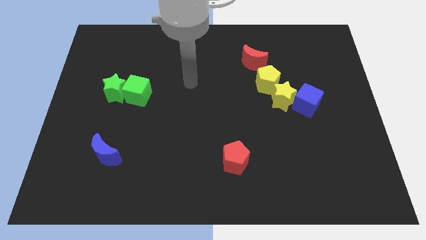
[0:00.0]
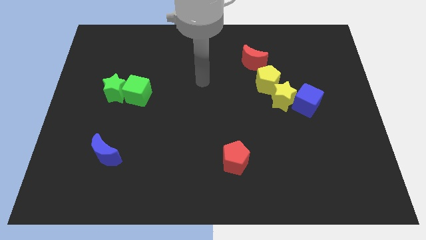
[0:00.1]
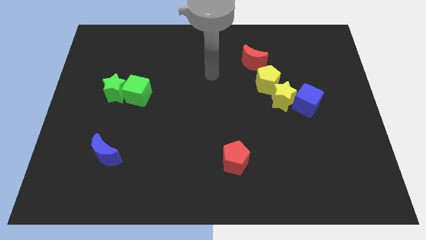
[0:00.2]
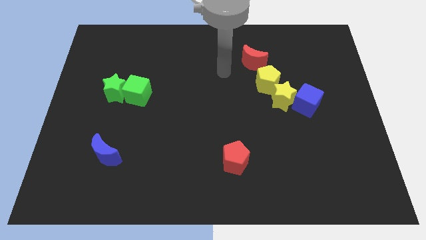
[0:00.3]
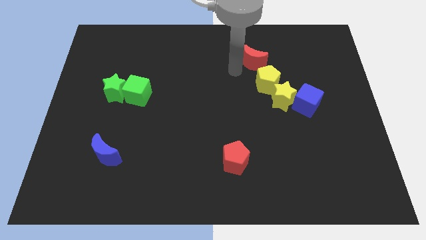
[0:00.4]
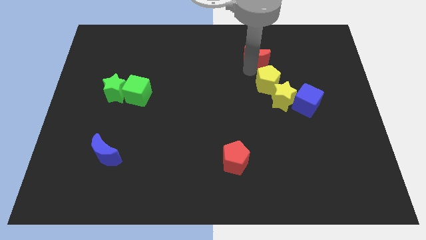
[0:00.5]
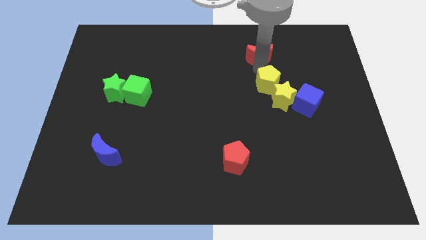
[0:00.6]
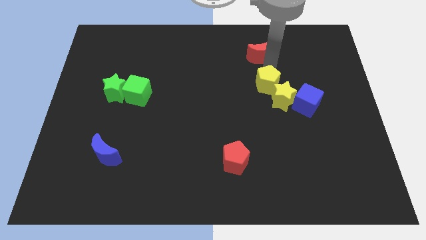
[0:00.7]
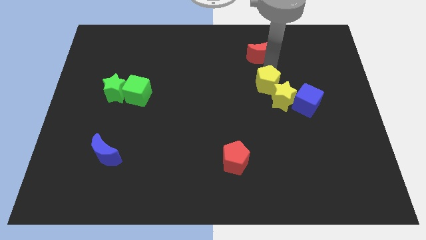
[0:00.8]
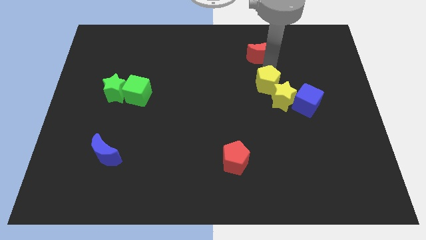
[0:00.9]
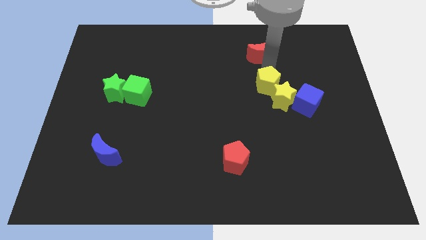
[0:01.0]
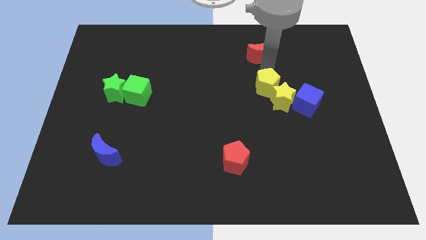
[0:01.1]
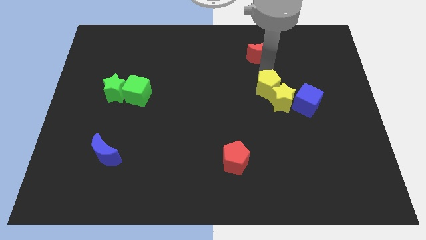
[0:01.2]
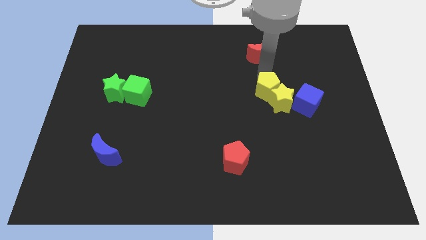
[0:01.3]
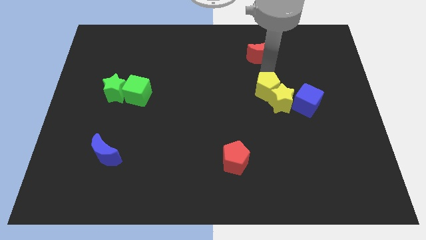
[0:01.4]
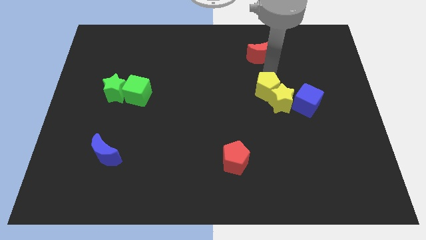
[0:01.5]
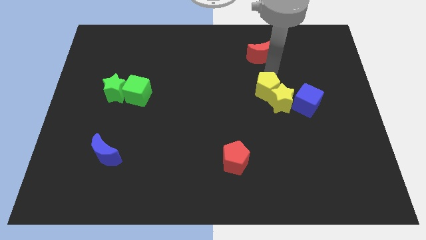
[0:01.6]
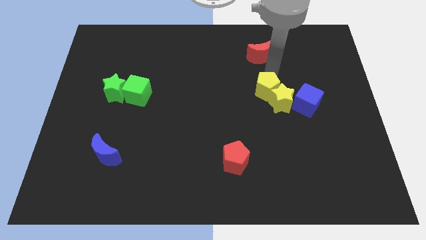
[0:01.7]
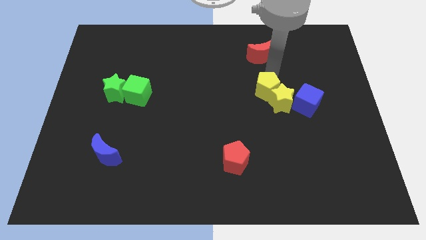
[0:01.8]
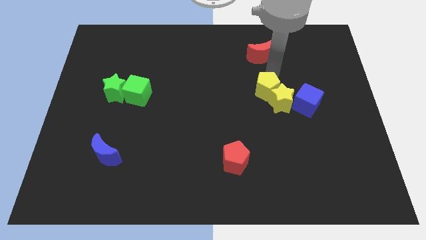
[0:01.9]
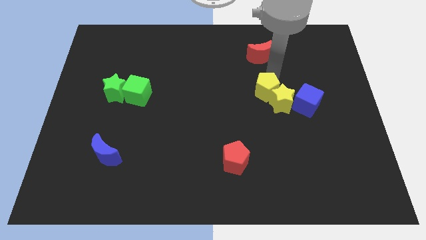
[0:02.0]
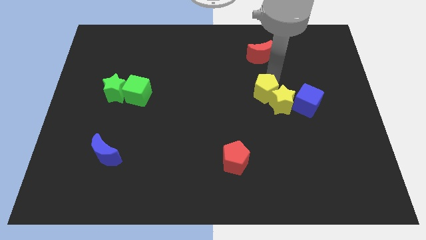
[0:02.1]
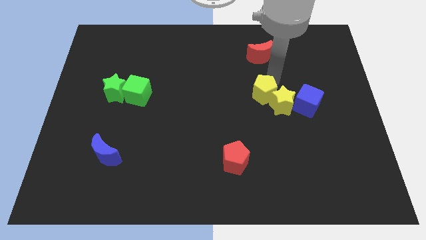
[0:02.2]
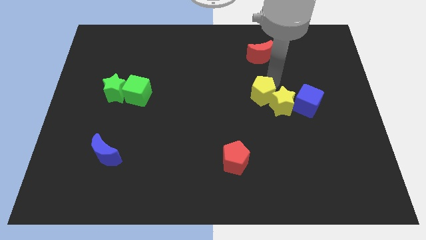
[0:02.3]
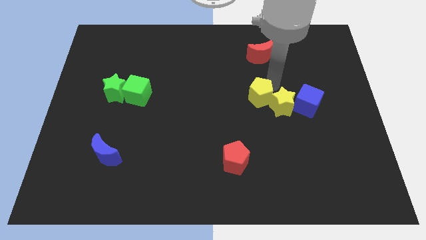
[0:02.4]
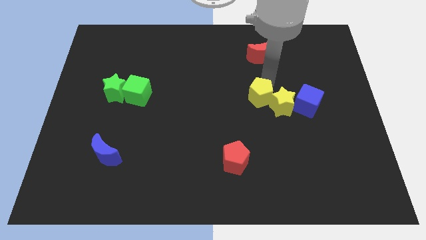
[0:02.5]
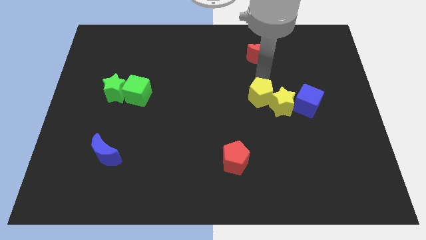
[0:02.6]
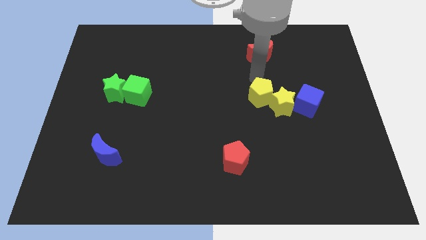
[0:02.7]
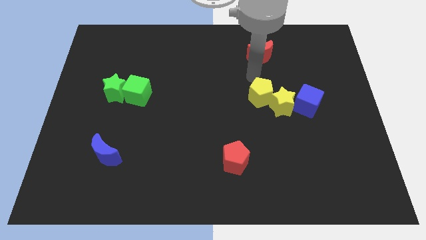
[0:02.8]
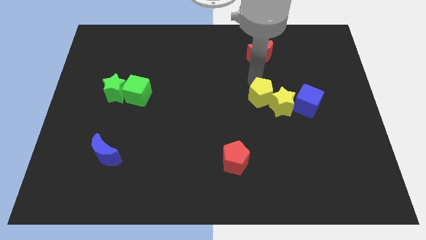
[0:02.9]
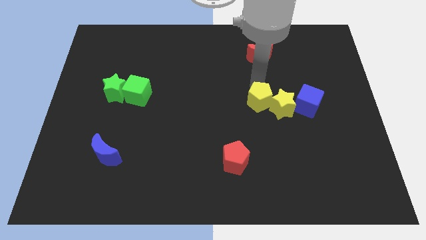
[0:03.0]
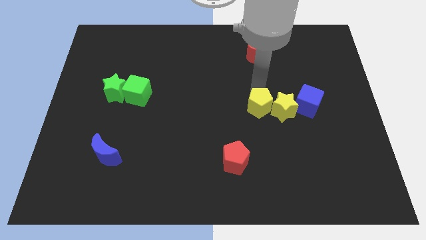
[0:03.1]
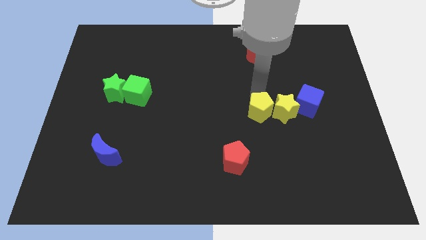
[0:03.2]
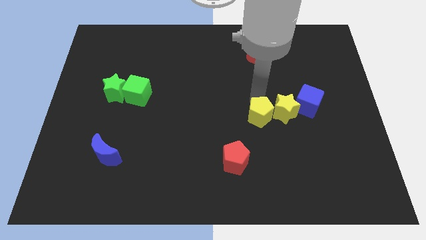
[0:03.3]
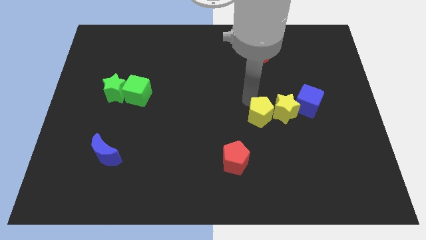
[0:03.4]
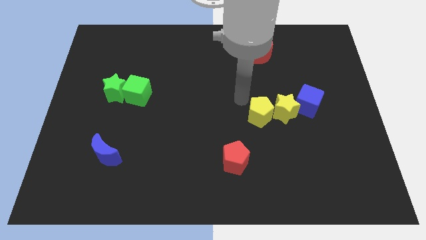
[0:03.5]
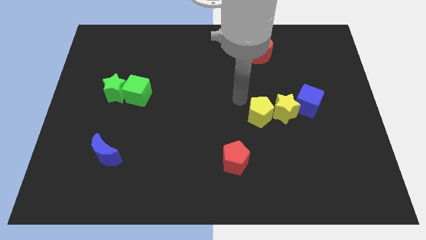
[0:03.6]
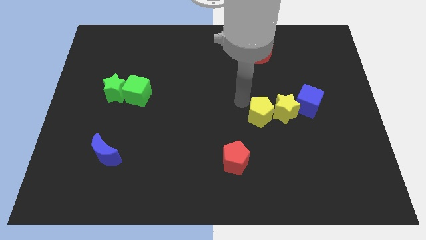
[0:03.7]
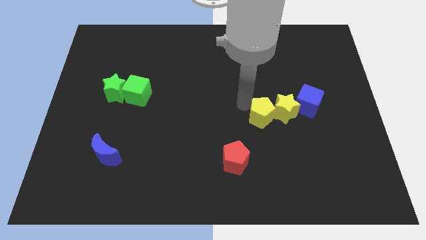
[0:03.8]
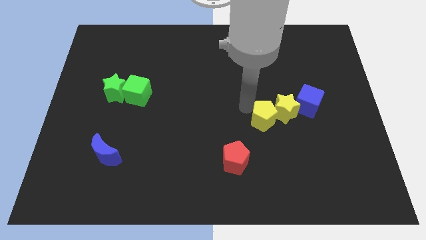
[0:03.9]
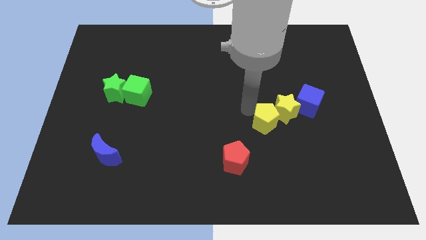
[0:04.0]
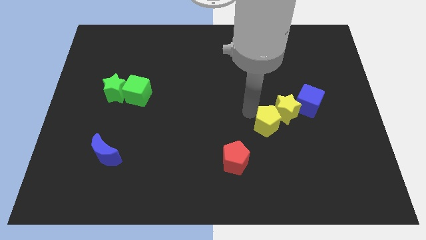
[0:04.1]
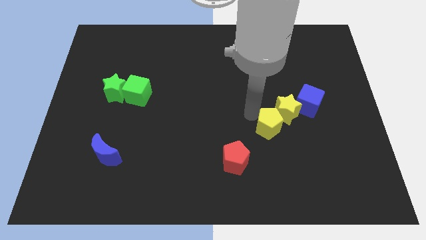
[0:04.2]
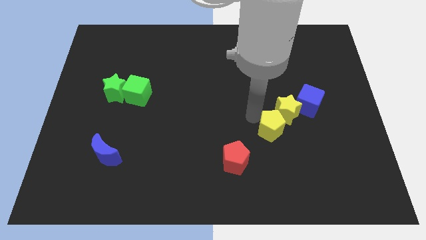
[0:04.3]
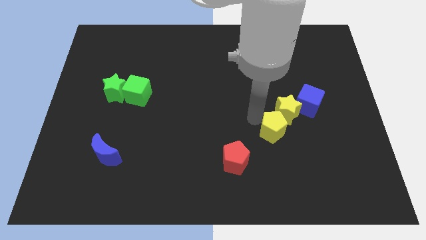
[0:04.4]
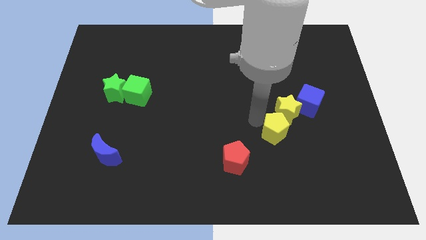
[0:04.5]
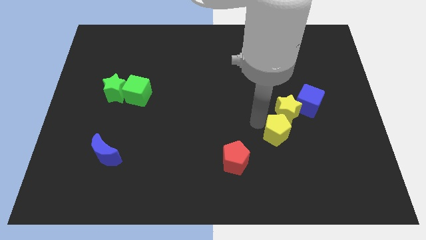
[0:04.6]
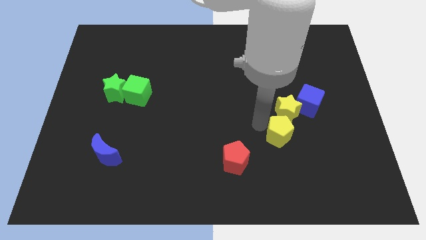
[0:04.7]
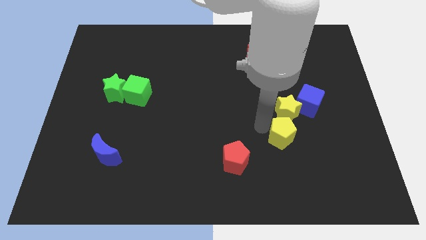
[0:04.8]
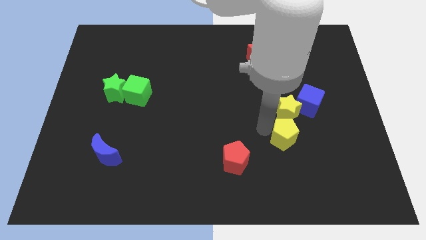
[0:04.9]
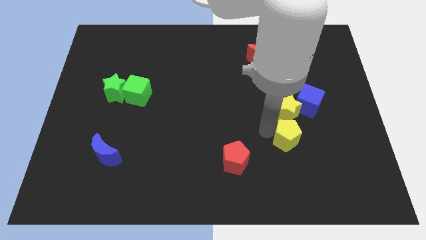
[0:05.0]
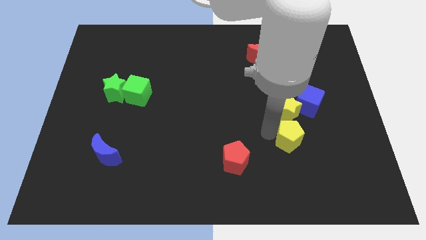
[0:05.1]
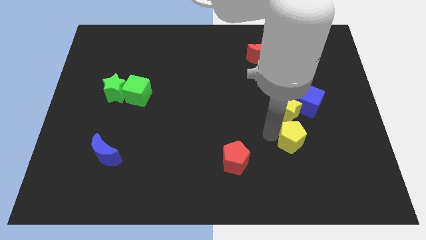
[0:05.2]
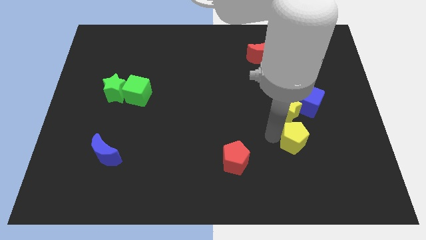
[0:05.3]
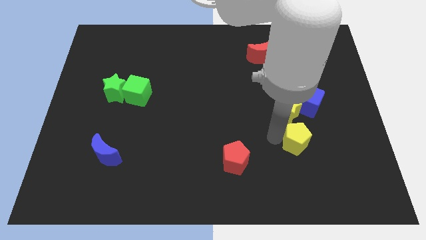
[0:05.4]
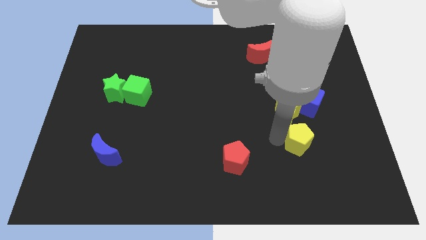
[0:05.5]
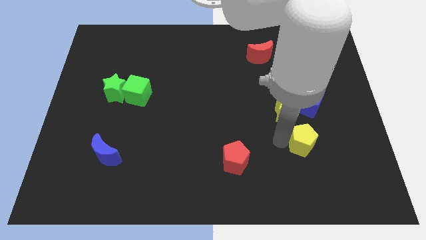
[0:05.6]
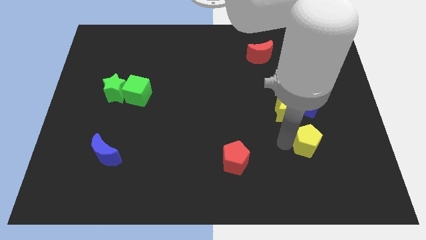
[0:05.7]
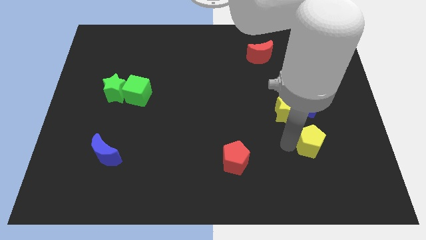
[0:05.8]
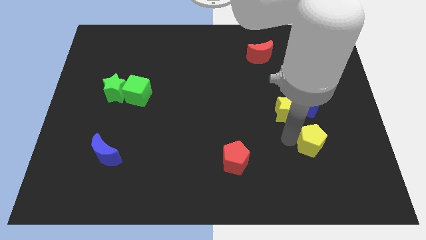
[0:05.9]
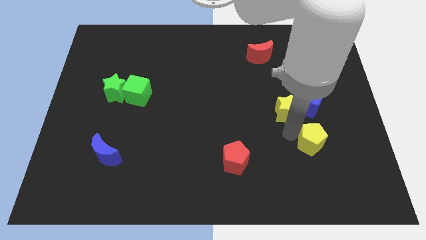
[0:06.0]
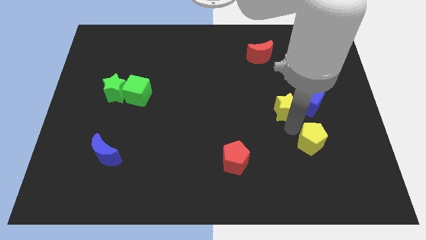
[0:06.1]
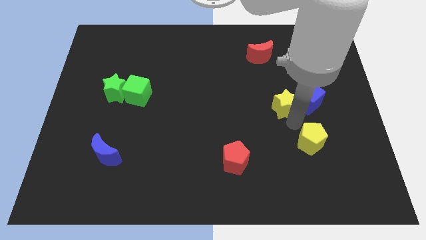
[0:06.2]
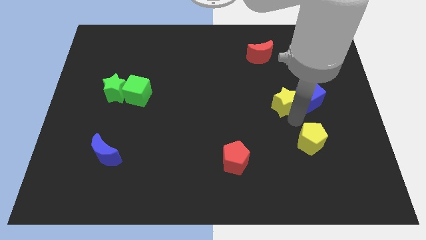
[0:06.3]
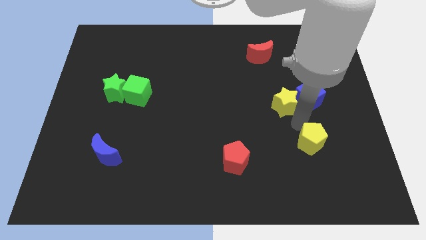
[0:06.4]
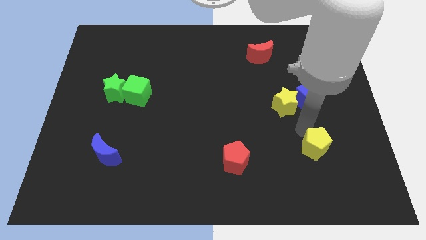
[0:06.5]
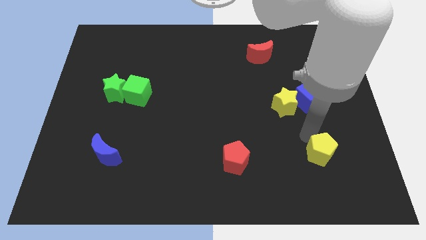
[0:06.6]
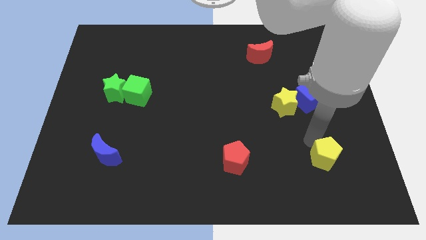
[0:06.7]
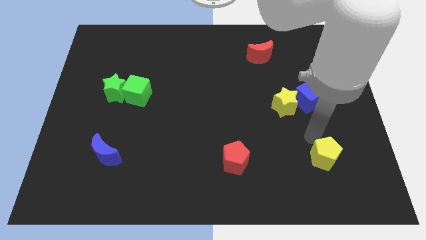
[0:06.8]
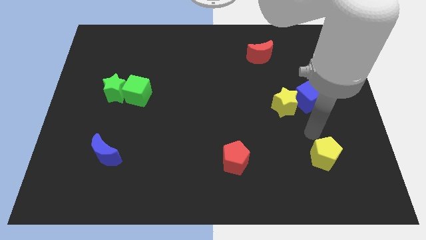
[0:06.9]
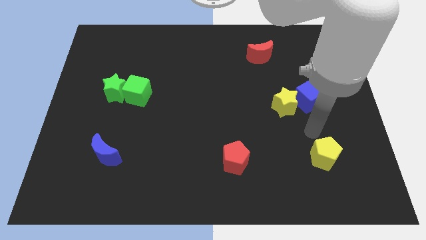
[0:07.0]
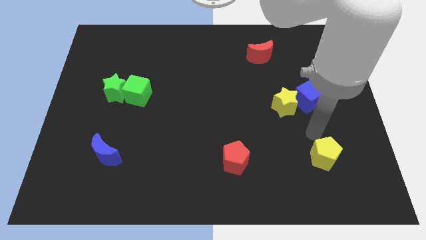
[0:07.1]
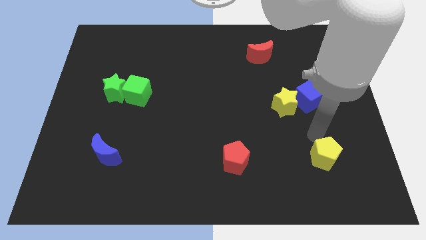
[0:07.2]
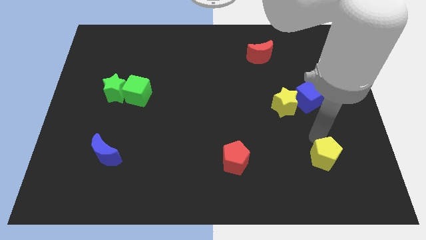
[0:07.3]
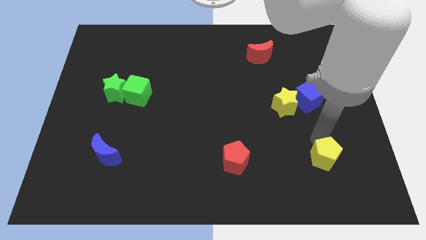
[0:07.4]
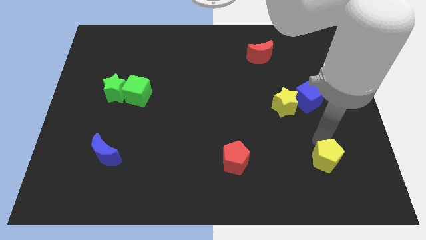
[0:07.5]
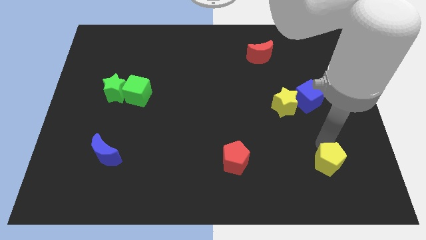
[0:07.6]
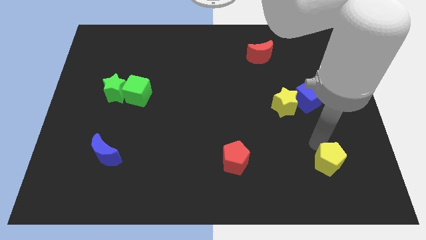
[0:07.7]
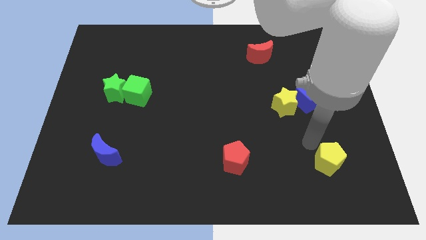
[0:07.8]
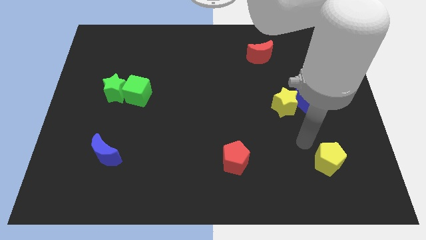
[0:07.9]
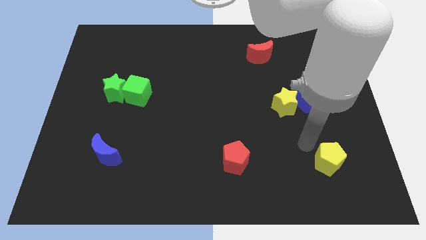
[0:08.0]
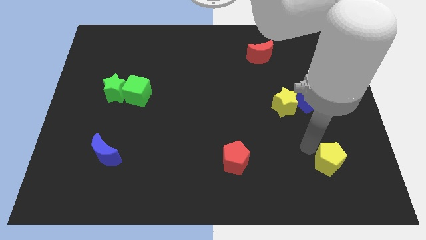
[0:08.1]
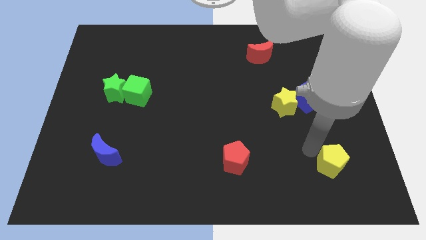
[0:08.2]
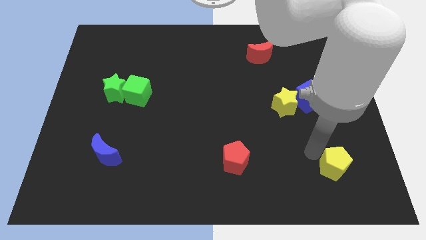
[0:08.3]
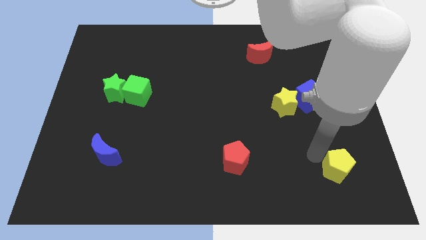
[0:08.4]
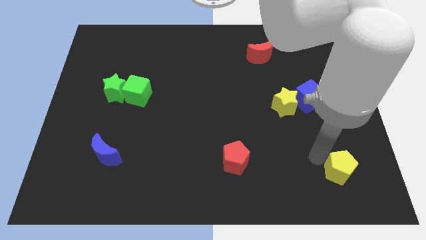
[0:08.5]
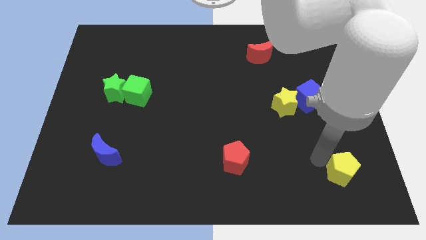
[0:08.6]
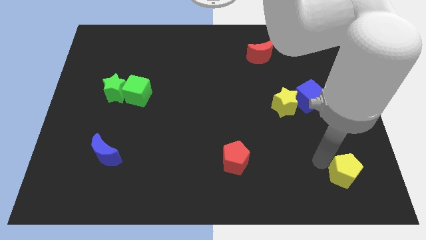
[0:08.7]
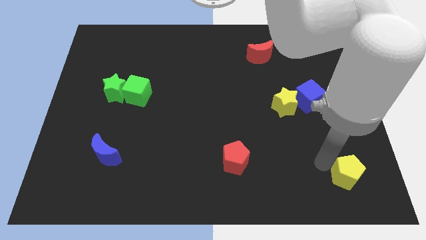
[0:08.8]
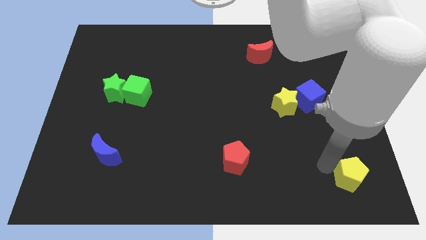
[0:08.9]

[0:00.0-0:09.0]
move the yellow pentagon to the bottom right
